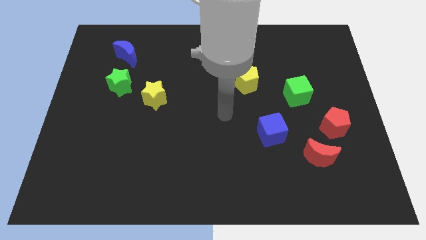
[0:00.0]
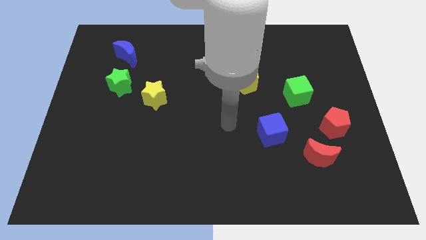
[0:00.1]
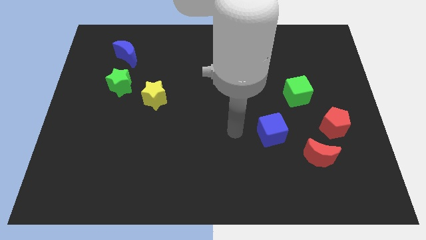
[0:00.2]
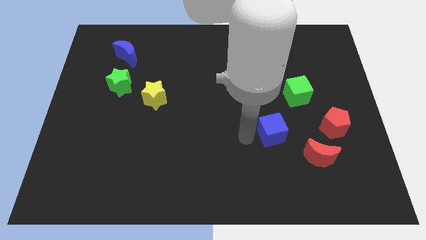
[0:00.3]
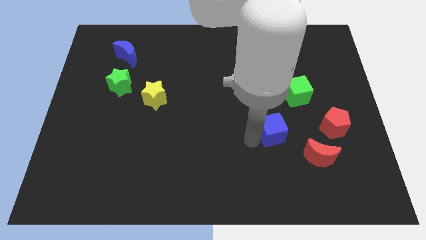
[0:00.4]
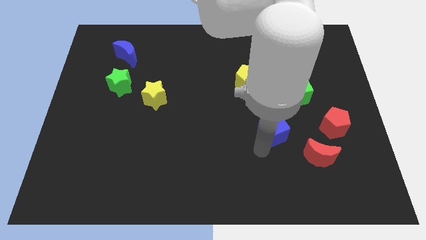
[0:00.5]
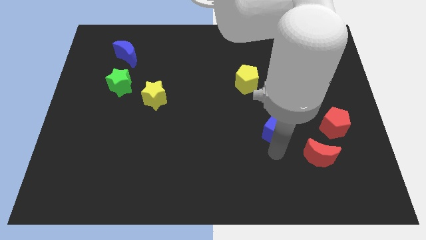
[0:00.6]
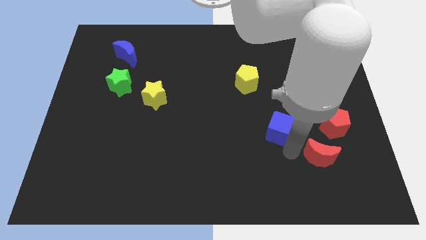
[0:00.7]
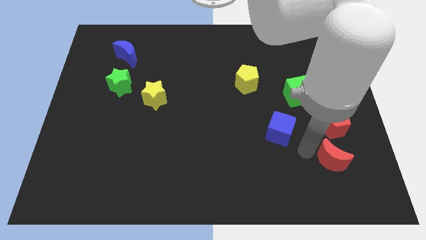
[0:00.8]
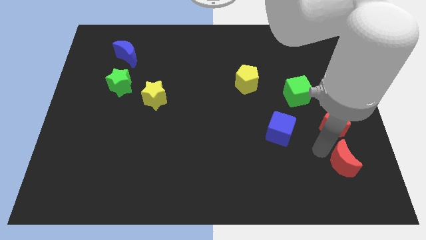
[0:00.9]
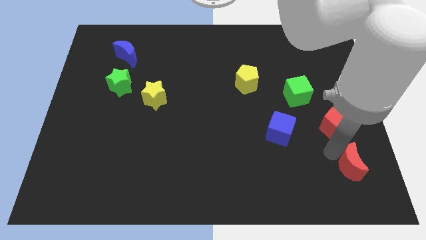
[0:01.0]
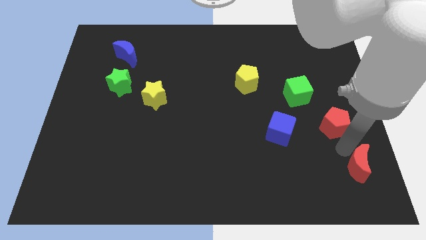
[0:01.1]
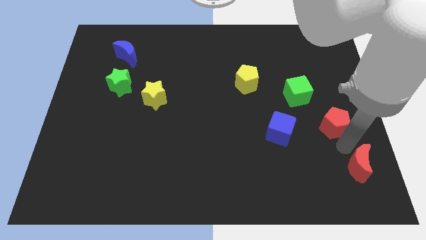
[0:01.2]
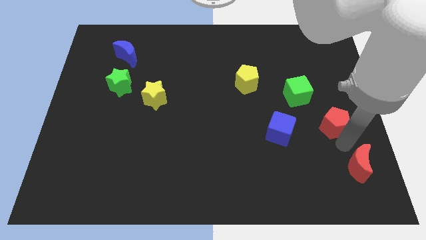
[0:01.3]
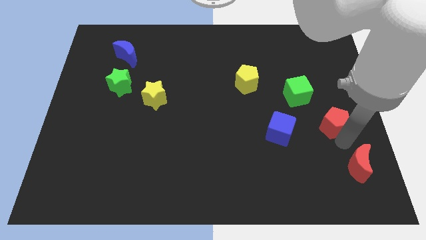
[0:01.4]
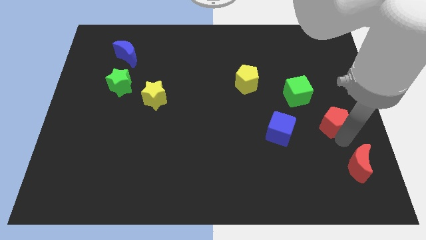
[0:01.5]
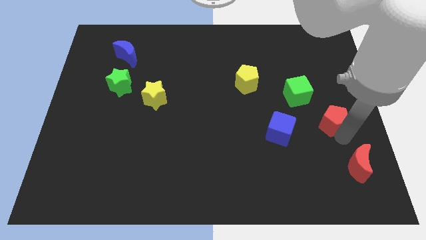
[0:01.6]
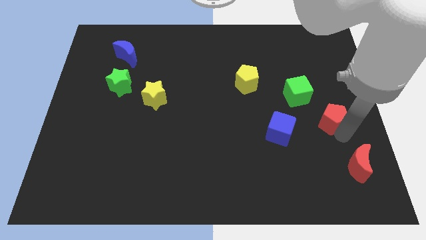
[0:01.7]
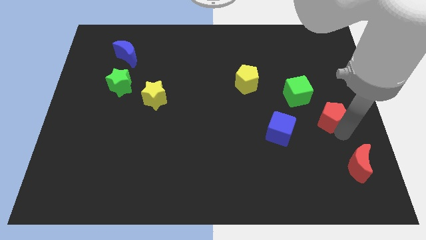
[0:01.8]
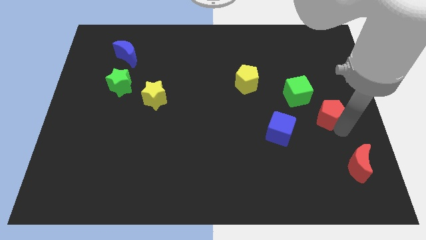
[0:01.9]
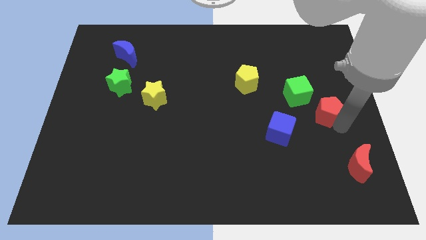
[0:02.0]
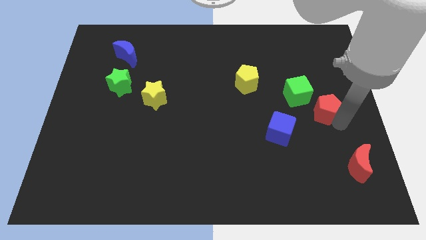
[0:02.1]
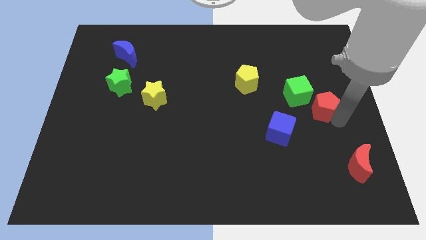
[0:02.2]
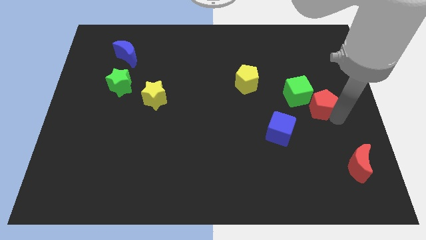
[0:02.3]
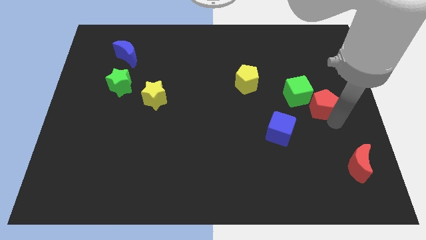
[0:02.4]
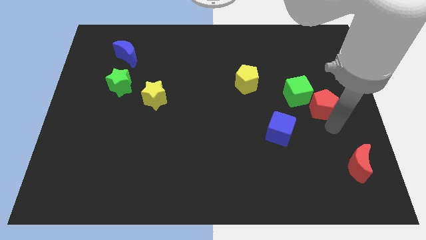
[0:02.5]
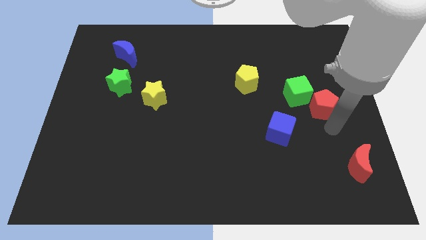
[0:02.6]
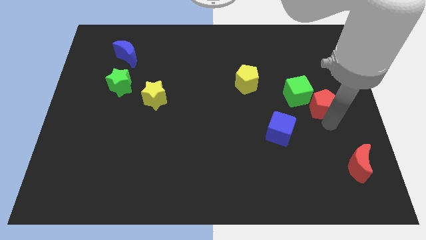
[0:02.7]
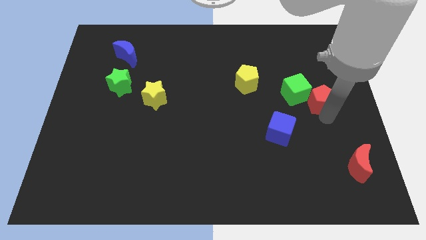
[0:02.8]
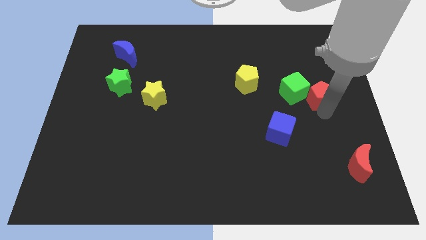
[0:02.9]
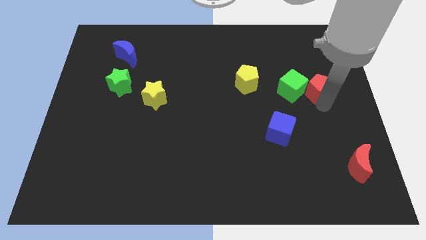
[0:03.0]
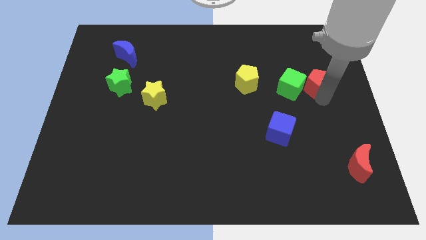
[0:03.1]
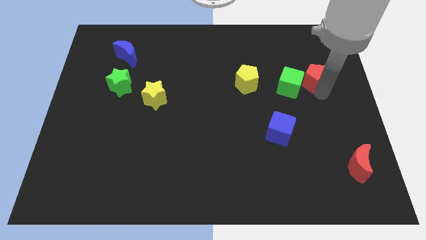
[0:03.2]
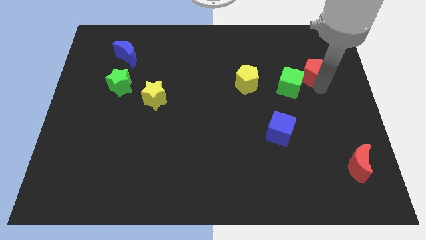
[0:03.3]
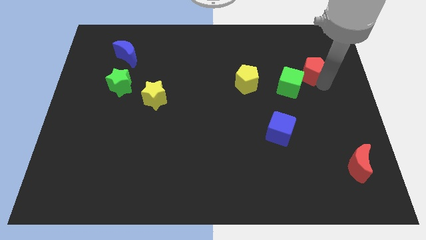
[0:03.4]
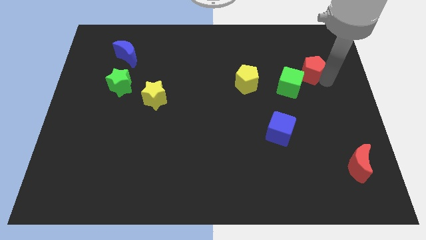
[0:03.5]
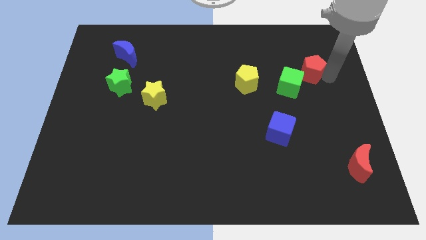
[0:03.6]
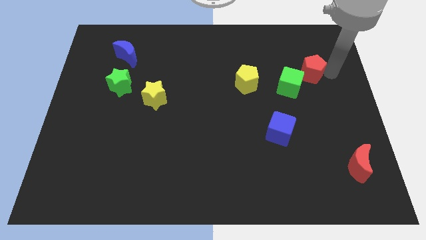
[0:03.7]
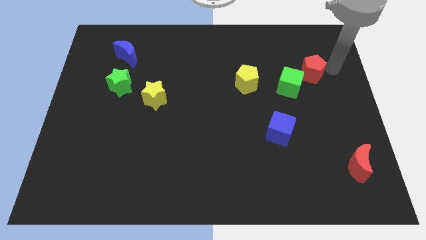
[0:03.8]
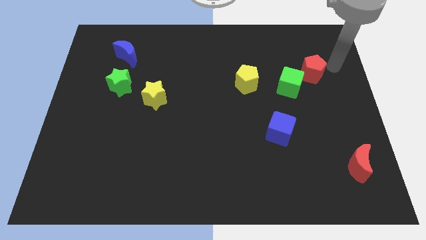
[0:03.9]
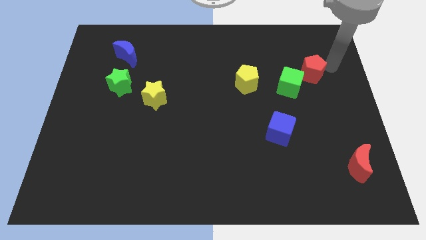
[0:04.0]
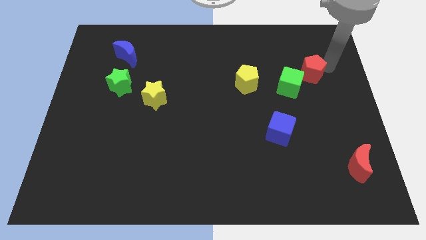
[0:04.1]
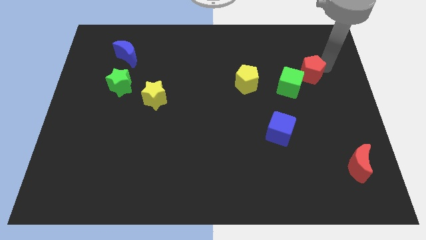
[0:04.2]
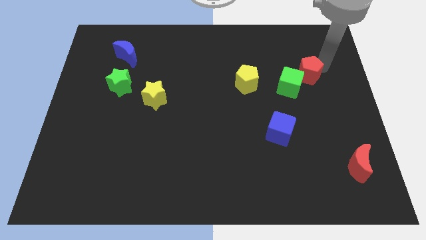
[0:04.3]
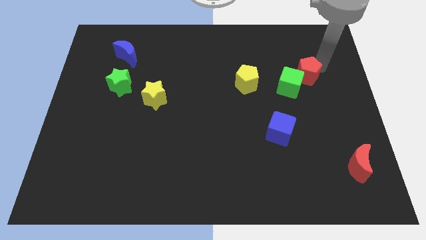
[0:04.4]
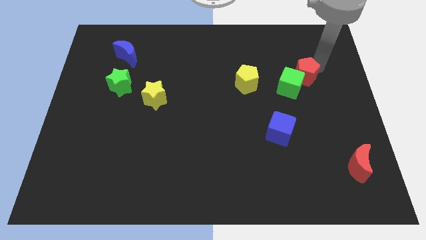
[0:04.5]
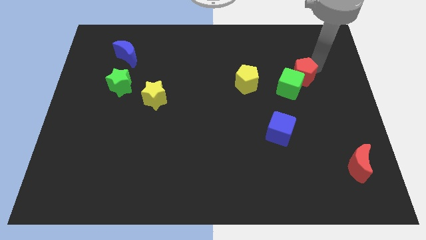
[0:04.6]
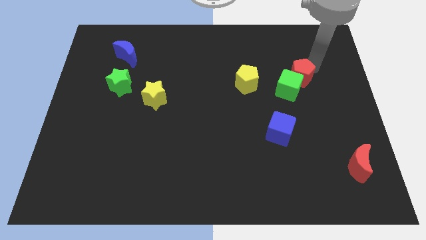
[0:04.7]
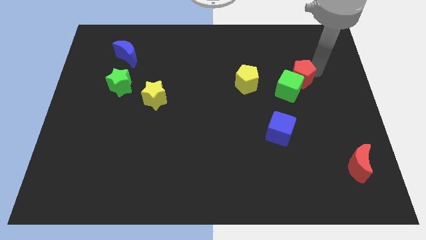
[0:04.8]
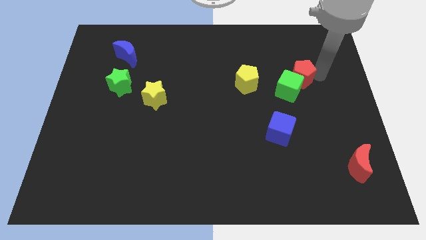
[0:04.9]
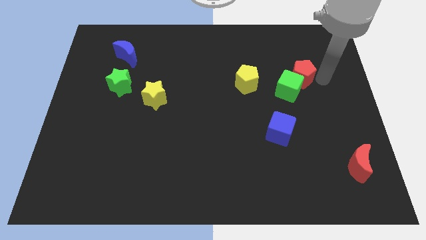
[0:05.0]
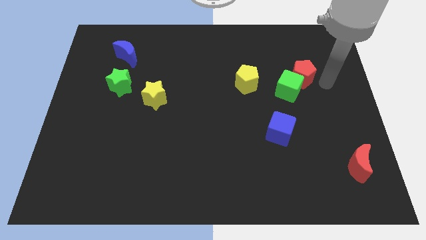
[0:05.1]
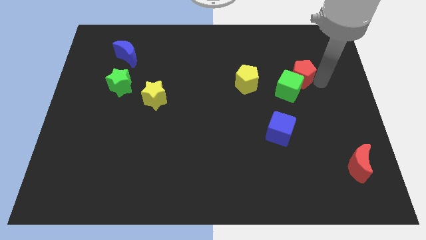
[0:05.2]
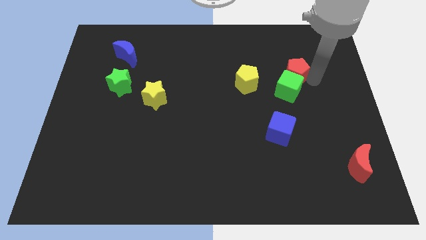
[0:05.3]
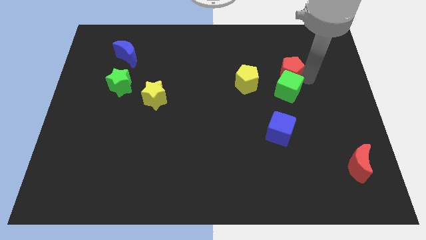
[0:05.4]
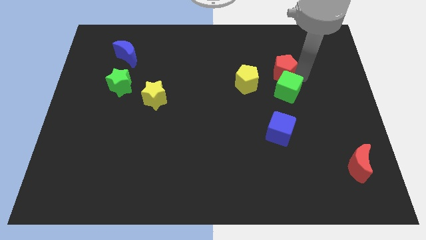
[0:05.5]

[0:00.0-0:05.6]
push the red pentagon to the top right of the yellow pentagon
